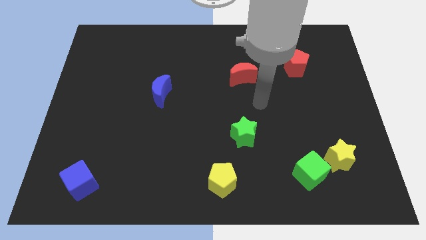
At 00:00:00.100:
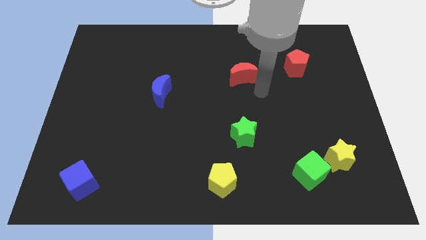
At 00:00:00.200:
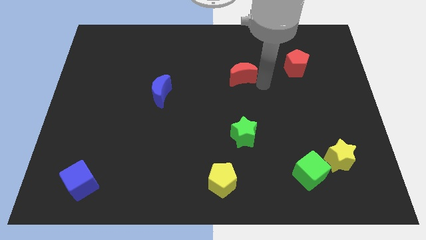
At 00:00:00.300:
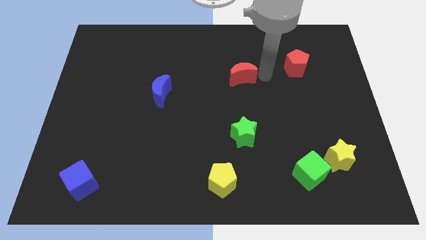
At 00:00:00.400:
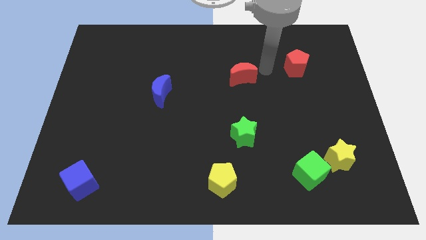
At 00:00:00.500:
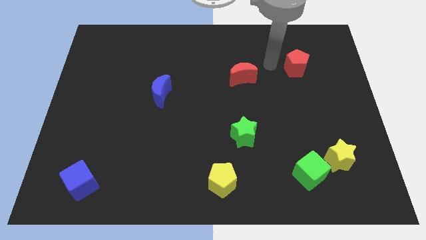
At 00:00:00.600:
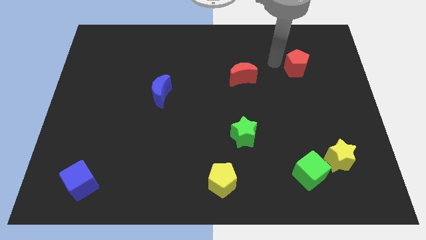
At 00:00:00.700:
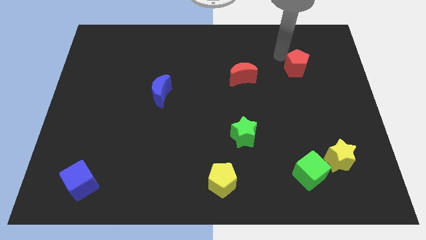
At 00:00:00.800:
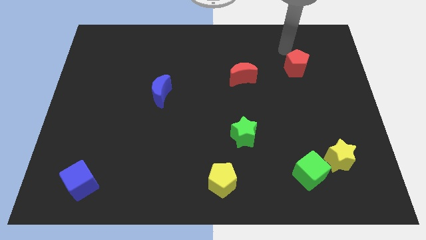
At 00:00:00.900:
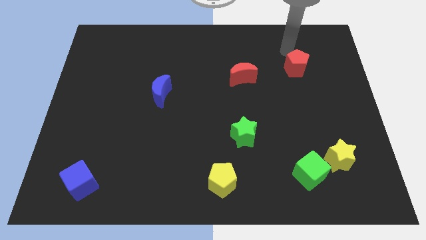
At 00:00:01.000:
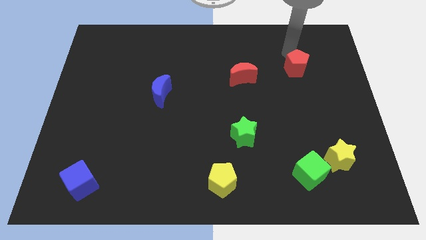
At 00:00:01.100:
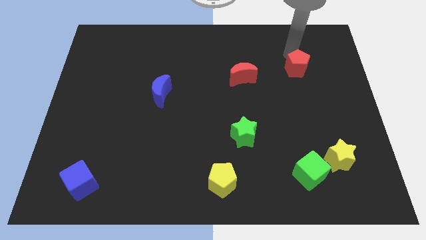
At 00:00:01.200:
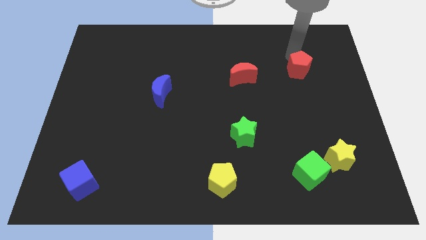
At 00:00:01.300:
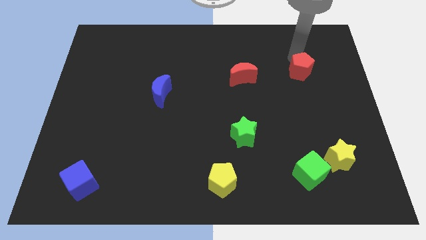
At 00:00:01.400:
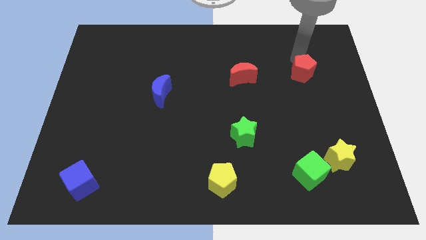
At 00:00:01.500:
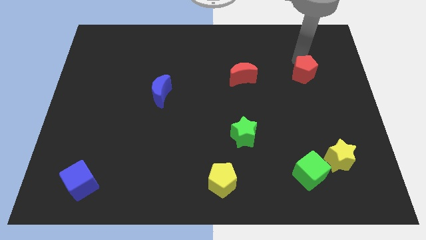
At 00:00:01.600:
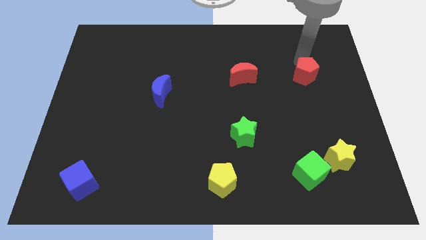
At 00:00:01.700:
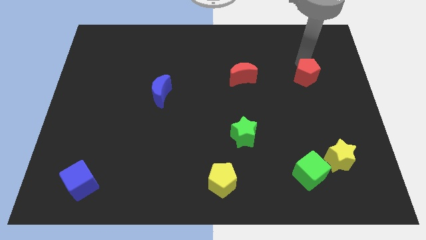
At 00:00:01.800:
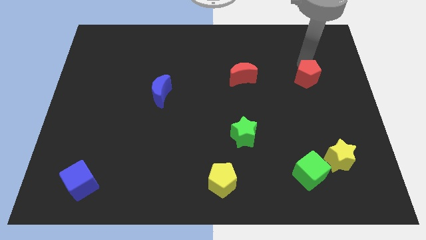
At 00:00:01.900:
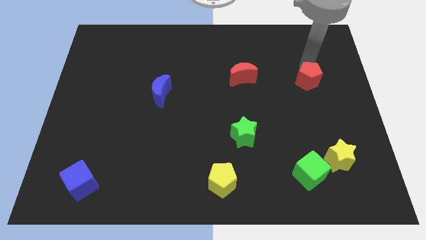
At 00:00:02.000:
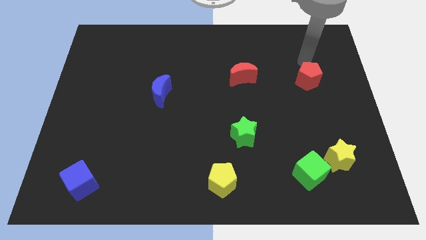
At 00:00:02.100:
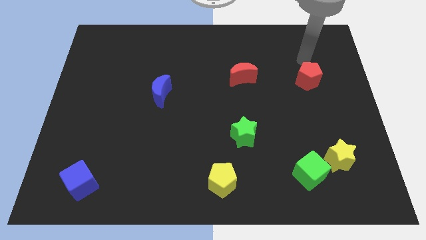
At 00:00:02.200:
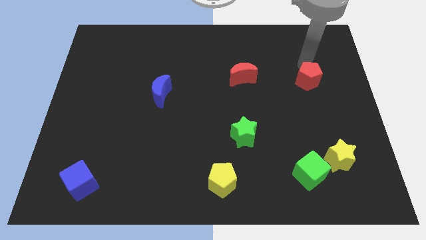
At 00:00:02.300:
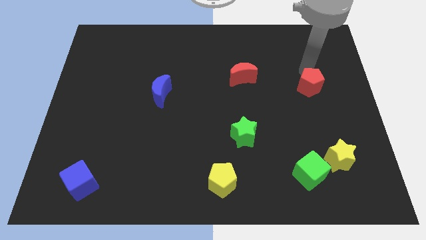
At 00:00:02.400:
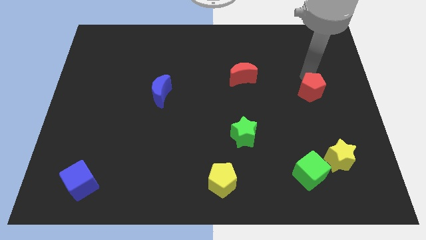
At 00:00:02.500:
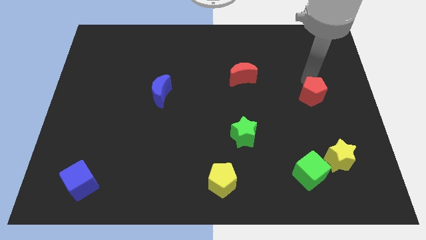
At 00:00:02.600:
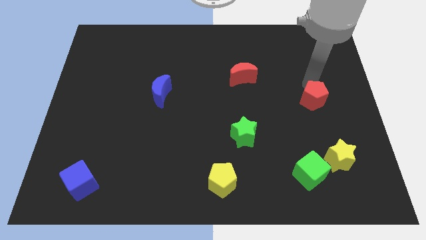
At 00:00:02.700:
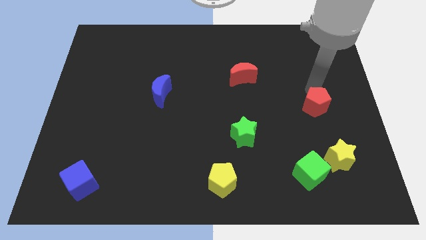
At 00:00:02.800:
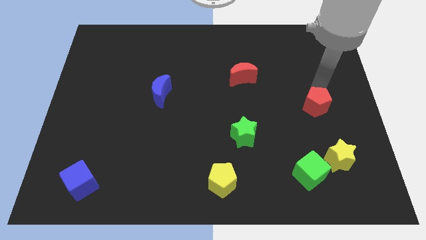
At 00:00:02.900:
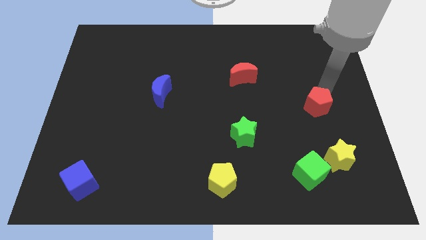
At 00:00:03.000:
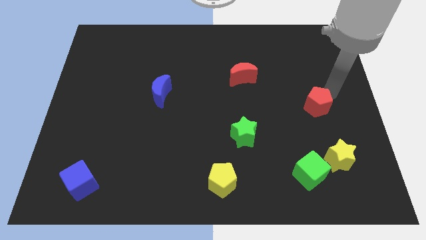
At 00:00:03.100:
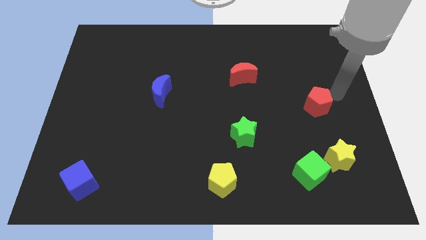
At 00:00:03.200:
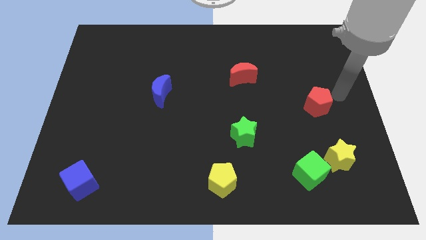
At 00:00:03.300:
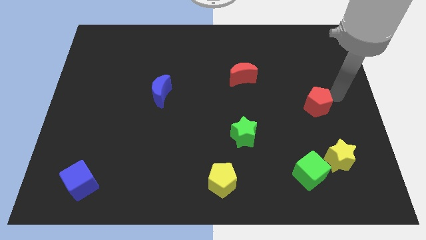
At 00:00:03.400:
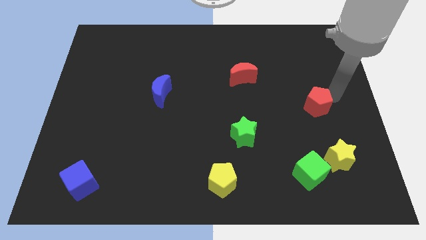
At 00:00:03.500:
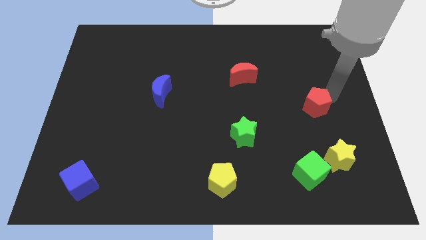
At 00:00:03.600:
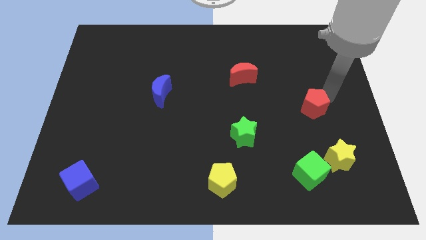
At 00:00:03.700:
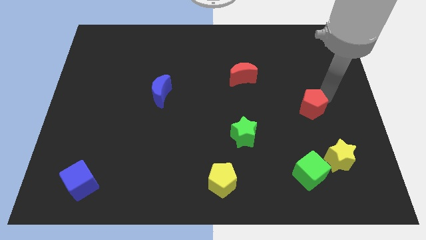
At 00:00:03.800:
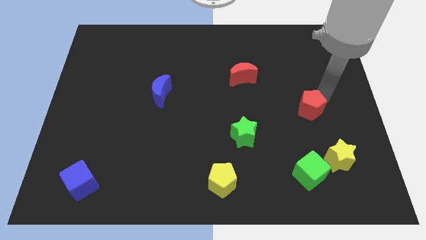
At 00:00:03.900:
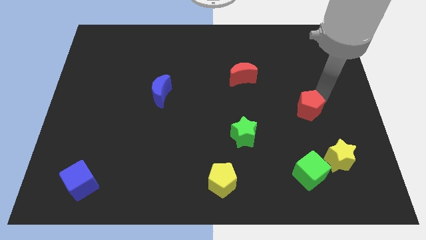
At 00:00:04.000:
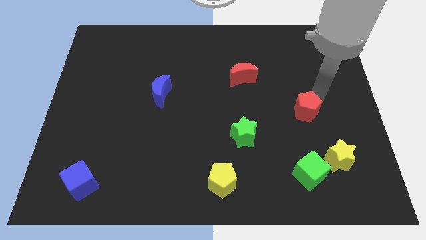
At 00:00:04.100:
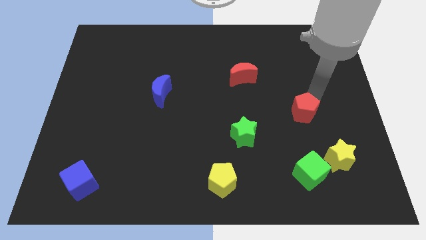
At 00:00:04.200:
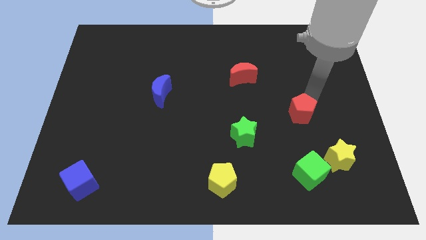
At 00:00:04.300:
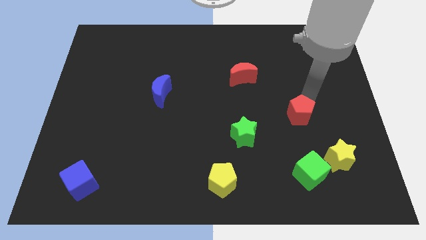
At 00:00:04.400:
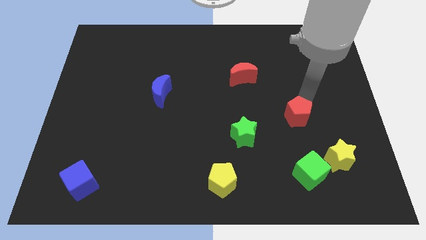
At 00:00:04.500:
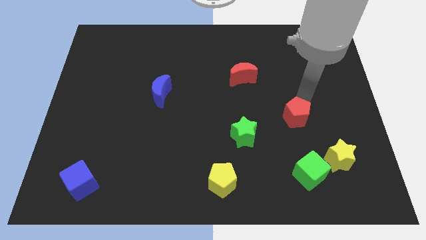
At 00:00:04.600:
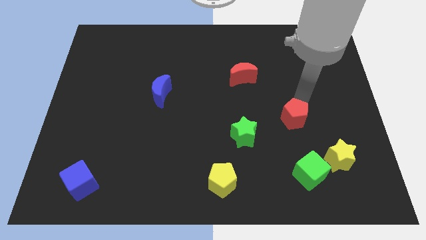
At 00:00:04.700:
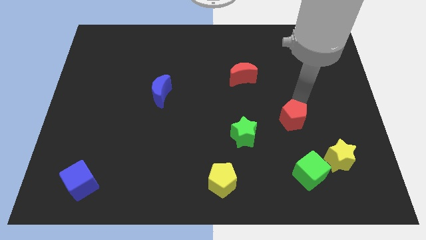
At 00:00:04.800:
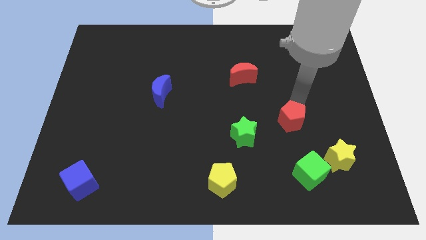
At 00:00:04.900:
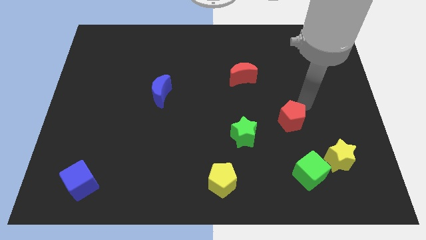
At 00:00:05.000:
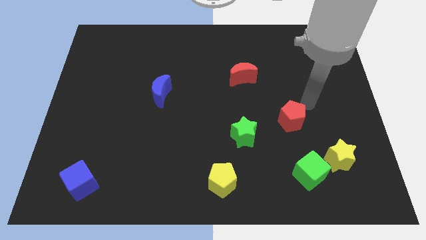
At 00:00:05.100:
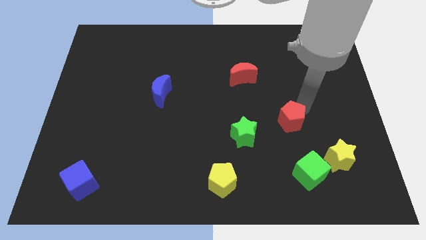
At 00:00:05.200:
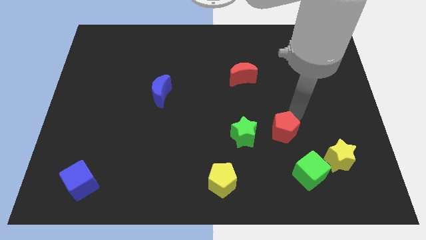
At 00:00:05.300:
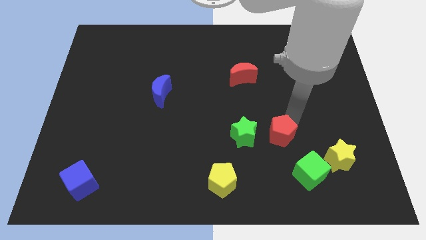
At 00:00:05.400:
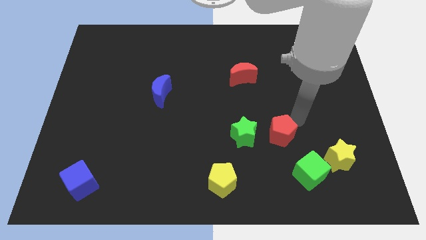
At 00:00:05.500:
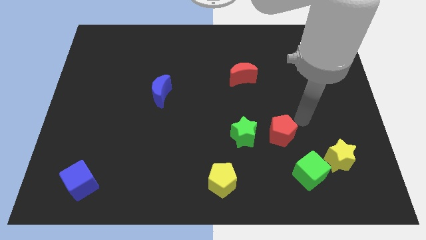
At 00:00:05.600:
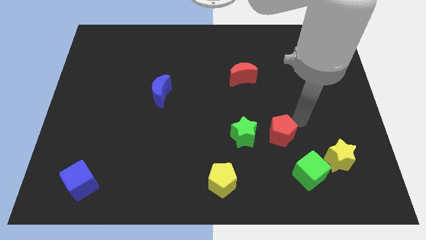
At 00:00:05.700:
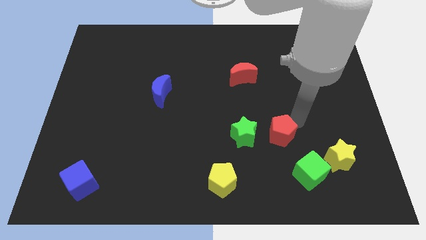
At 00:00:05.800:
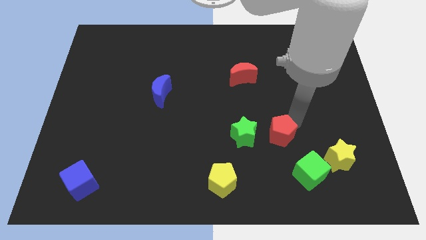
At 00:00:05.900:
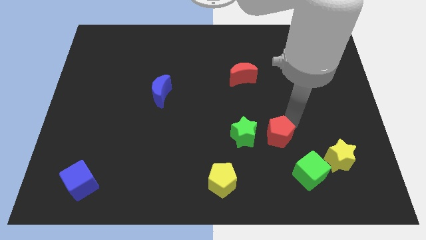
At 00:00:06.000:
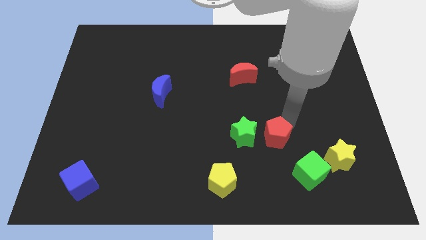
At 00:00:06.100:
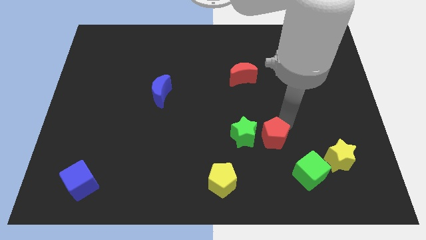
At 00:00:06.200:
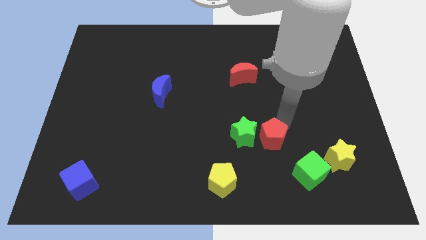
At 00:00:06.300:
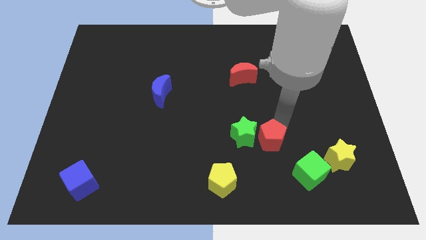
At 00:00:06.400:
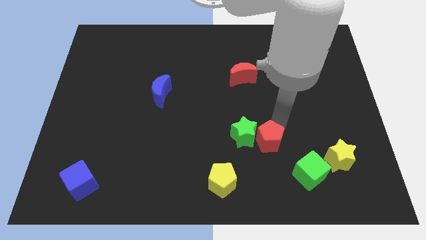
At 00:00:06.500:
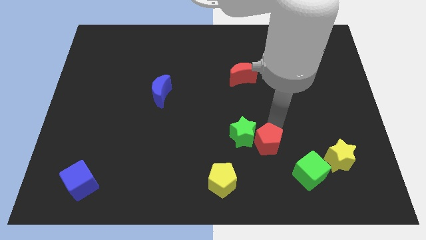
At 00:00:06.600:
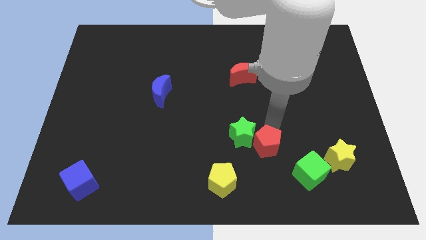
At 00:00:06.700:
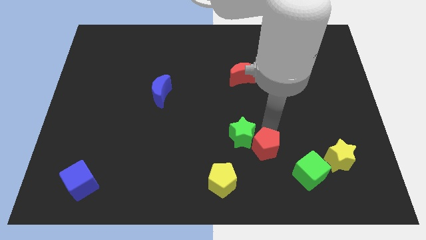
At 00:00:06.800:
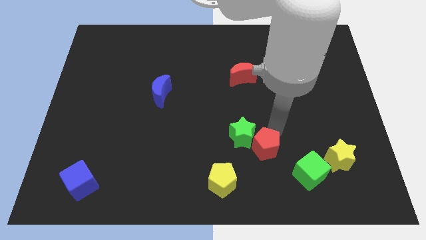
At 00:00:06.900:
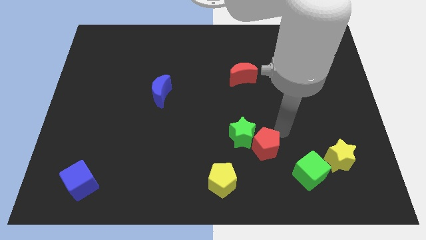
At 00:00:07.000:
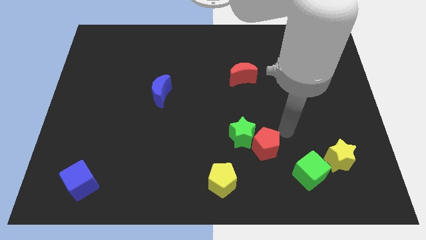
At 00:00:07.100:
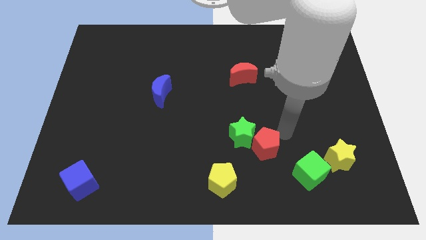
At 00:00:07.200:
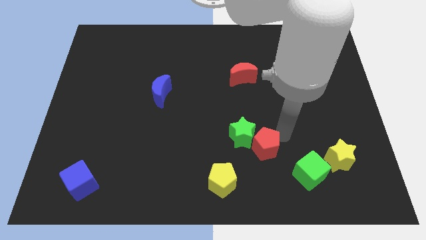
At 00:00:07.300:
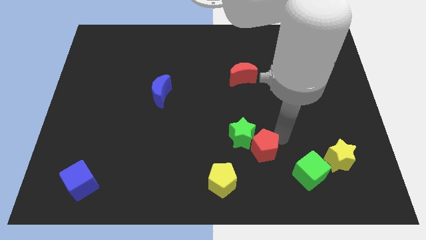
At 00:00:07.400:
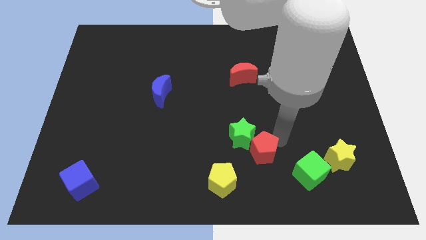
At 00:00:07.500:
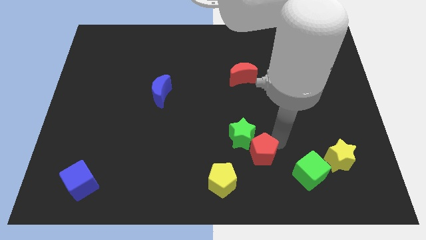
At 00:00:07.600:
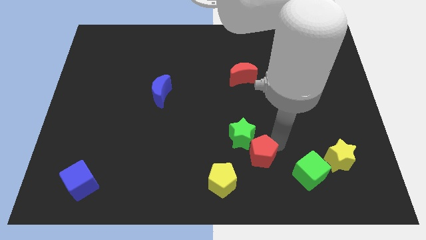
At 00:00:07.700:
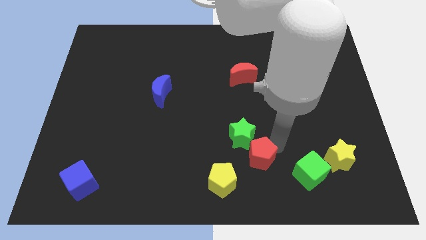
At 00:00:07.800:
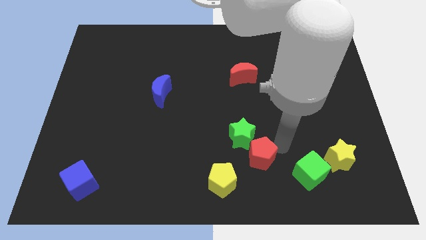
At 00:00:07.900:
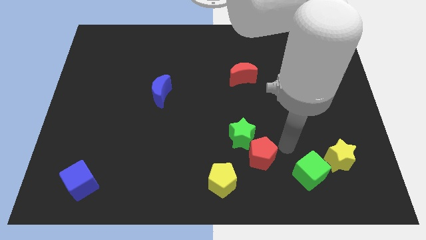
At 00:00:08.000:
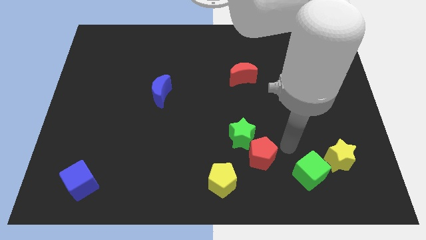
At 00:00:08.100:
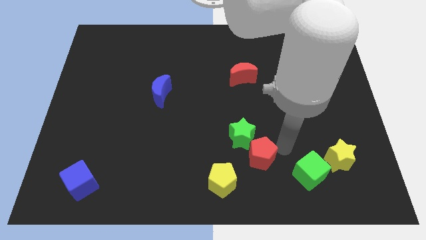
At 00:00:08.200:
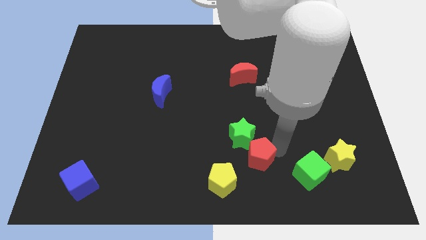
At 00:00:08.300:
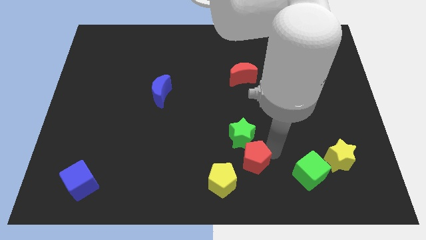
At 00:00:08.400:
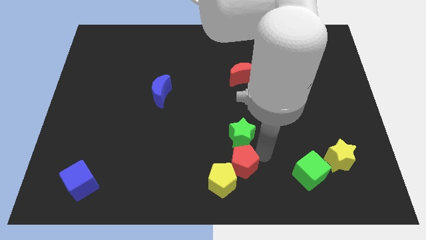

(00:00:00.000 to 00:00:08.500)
slide the red pentagon towards the yellow pentagon
